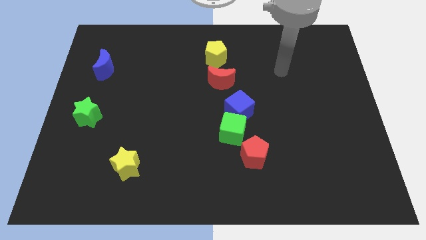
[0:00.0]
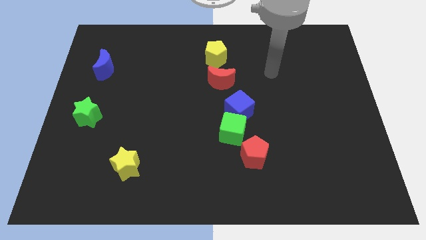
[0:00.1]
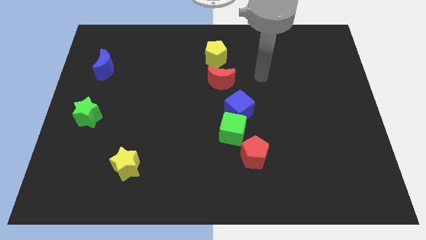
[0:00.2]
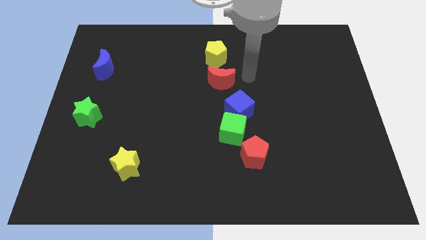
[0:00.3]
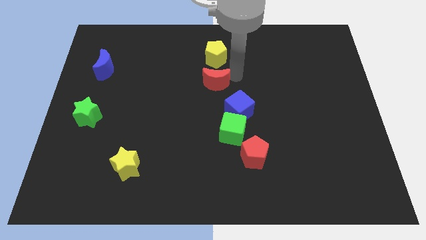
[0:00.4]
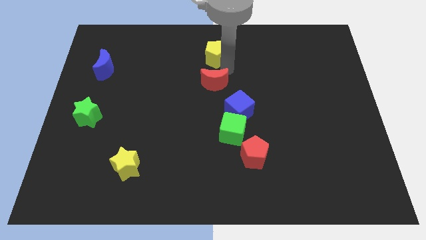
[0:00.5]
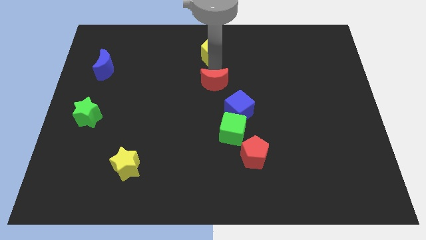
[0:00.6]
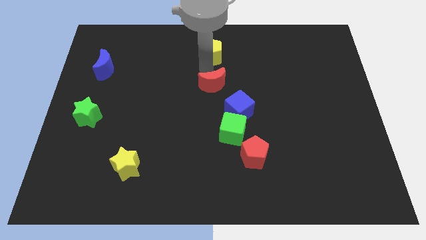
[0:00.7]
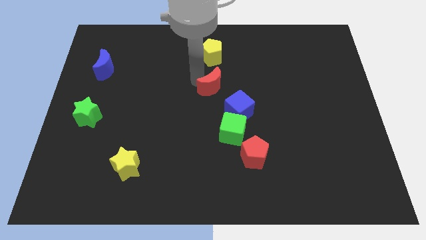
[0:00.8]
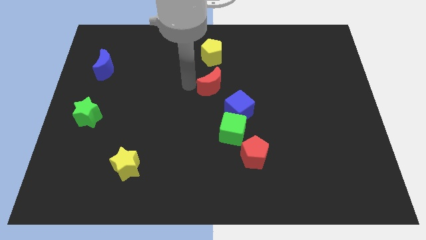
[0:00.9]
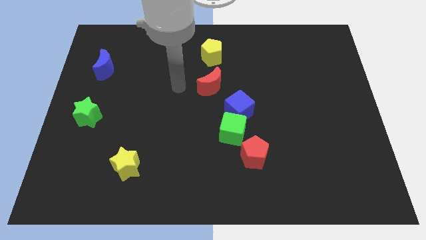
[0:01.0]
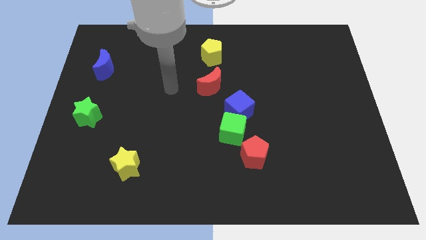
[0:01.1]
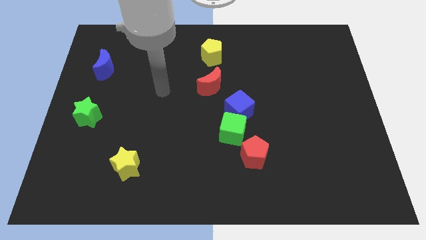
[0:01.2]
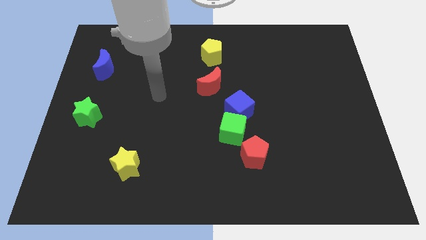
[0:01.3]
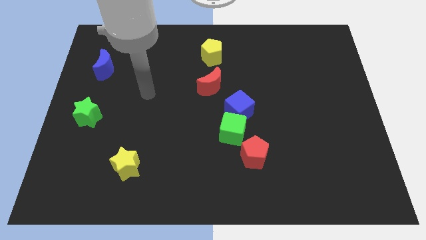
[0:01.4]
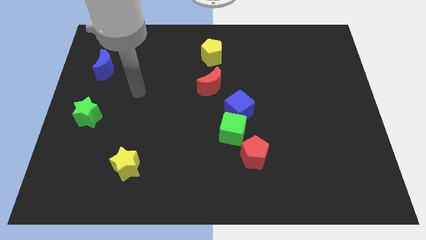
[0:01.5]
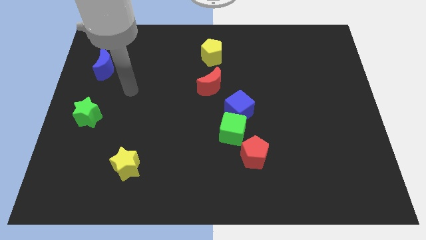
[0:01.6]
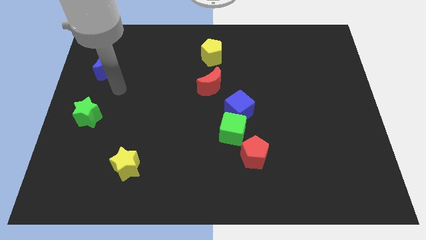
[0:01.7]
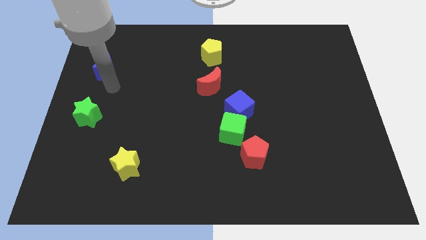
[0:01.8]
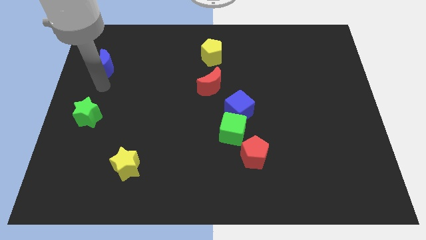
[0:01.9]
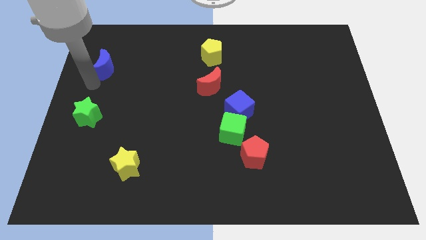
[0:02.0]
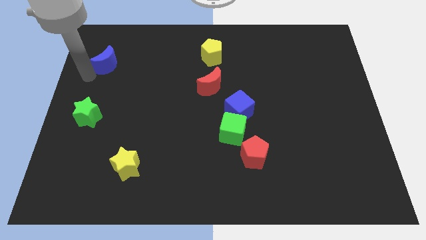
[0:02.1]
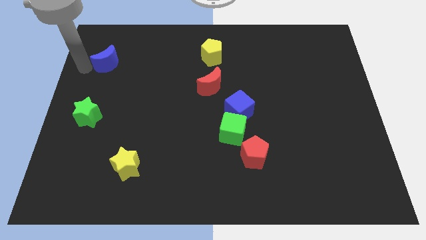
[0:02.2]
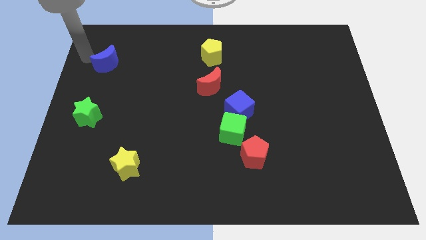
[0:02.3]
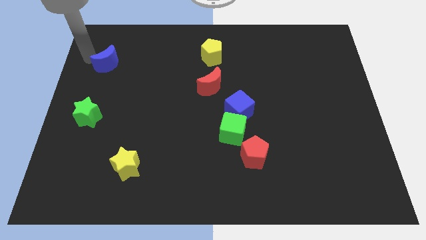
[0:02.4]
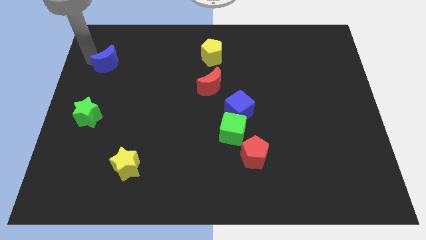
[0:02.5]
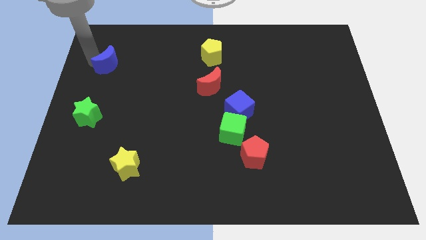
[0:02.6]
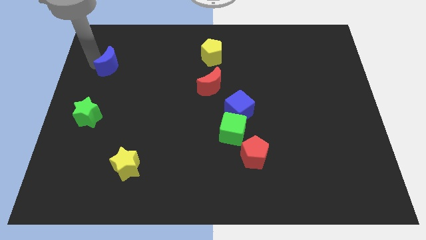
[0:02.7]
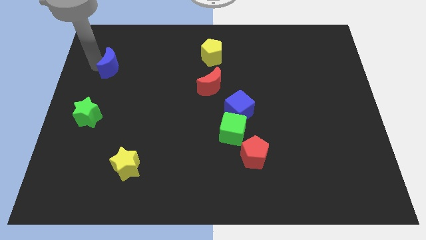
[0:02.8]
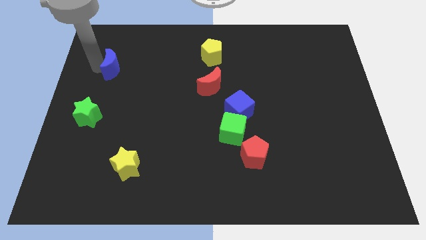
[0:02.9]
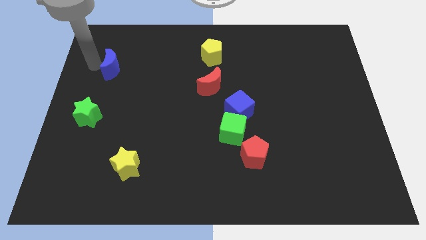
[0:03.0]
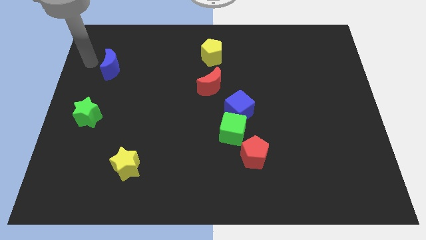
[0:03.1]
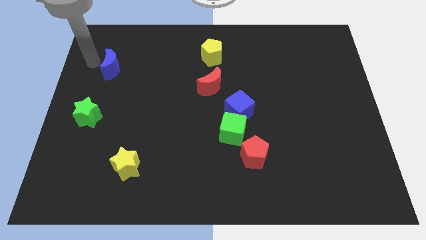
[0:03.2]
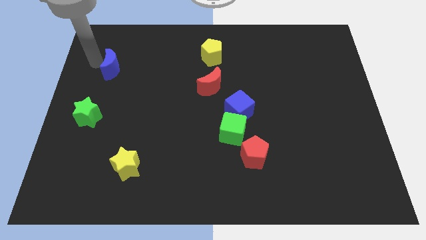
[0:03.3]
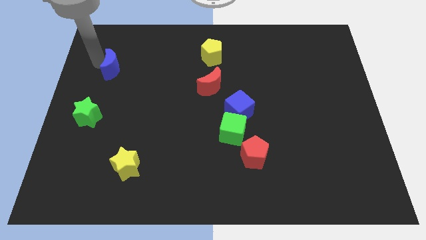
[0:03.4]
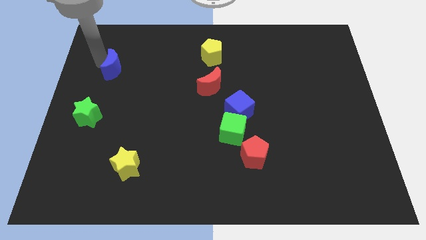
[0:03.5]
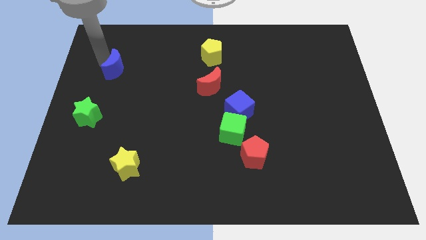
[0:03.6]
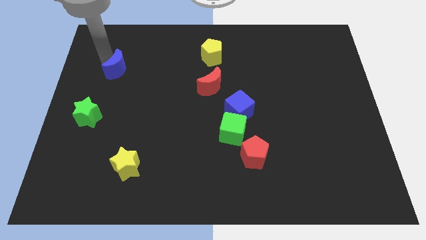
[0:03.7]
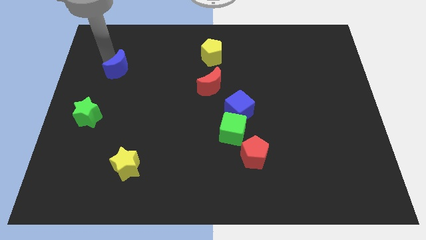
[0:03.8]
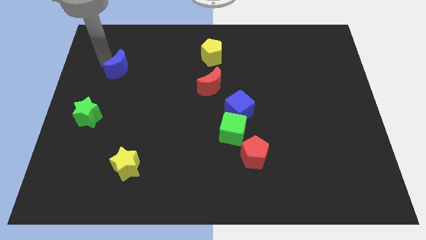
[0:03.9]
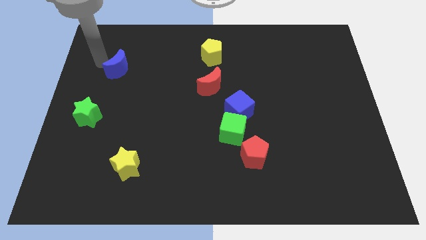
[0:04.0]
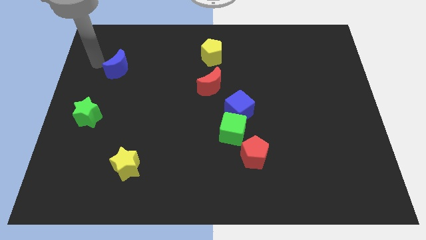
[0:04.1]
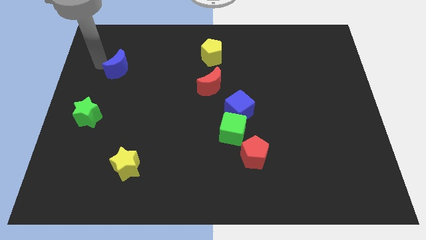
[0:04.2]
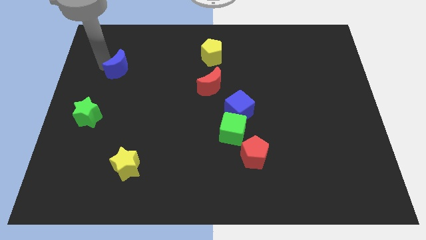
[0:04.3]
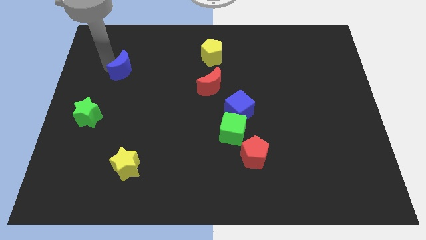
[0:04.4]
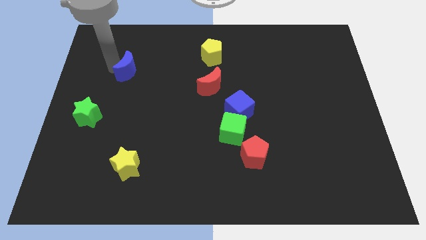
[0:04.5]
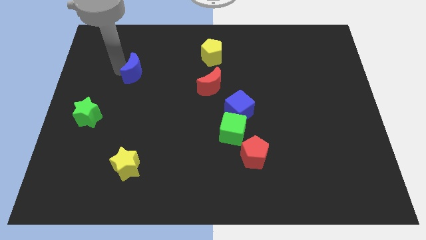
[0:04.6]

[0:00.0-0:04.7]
move the blue moon to the right a little

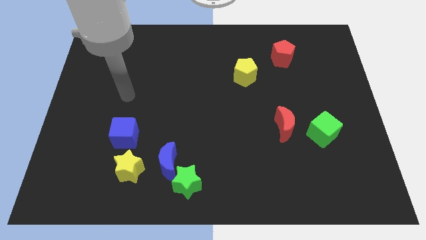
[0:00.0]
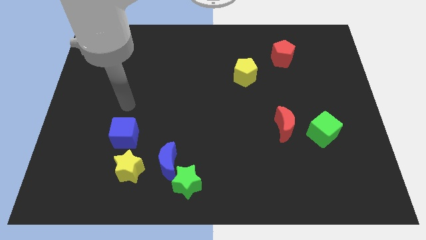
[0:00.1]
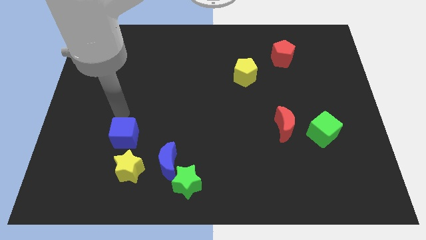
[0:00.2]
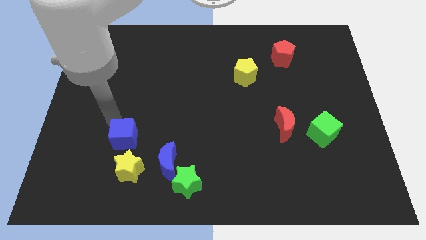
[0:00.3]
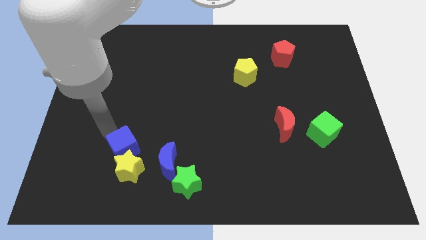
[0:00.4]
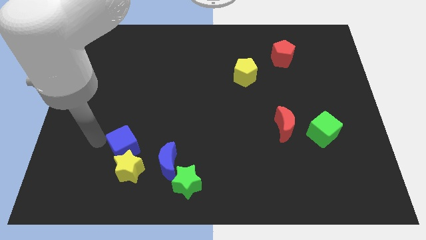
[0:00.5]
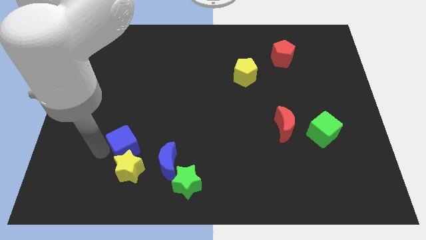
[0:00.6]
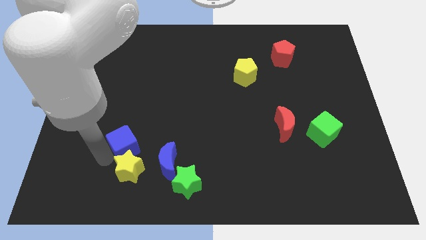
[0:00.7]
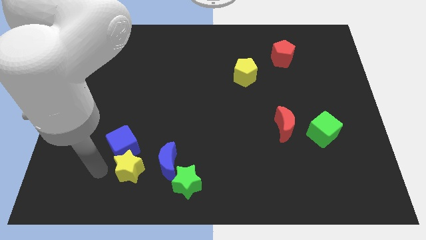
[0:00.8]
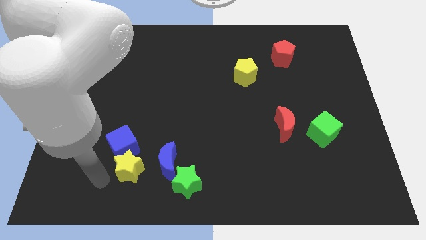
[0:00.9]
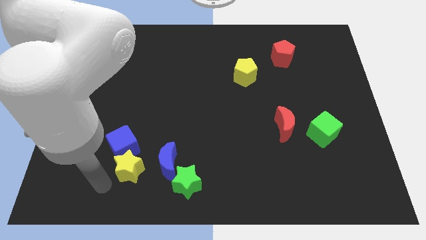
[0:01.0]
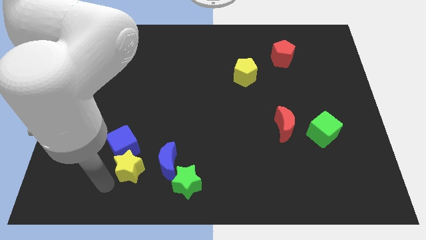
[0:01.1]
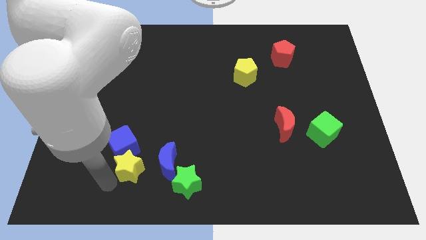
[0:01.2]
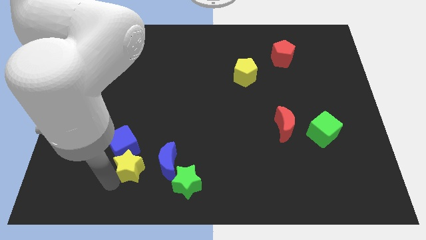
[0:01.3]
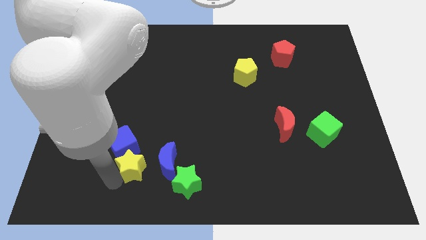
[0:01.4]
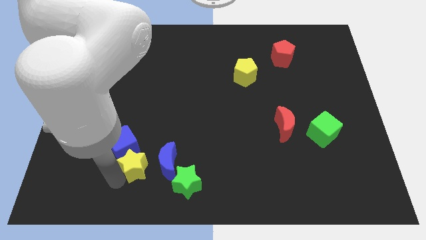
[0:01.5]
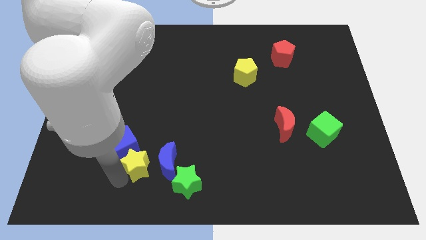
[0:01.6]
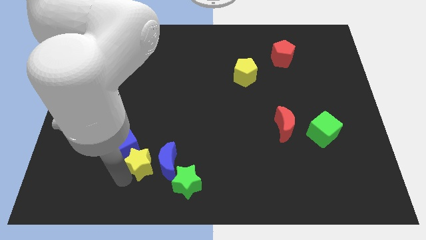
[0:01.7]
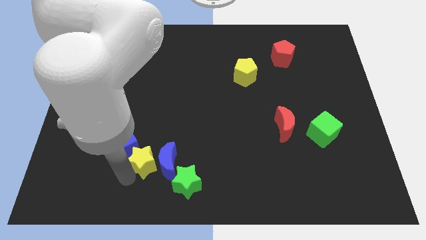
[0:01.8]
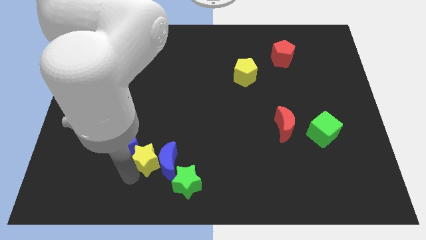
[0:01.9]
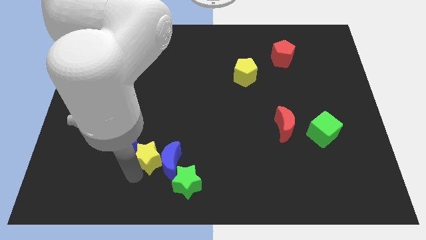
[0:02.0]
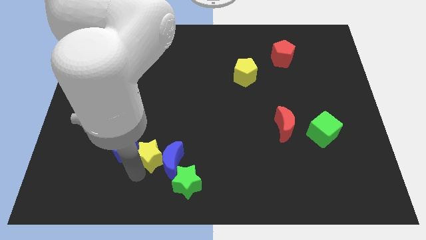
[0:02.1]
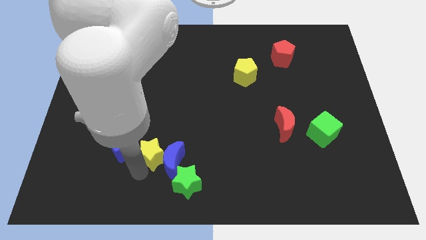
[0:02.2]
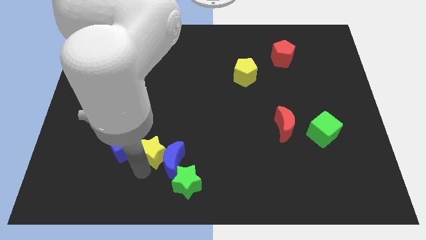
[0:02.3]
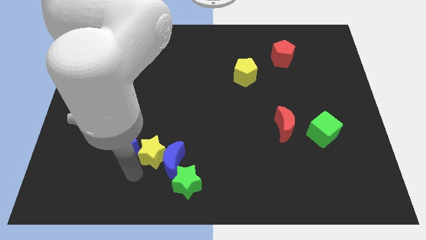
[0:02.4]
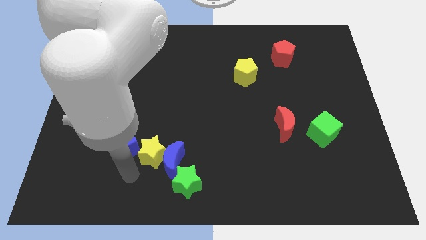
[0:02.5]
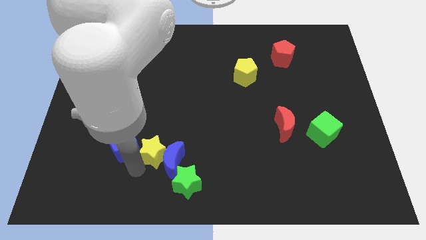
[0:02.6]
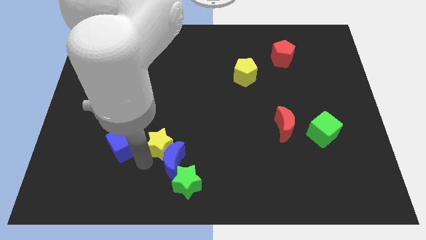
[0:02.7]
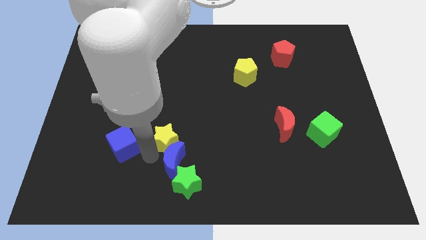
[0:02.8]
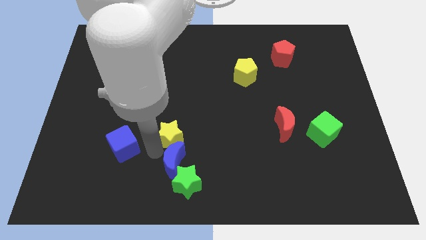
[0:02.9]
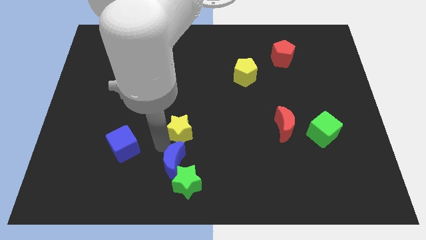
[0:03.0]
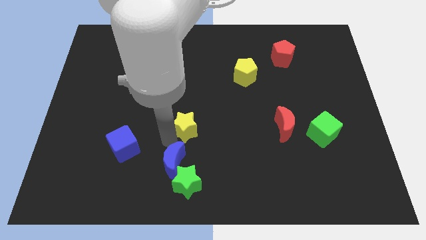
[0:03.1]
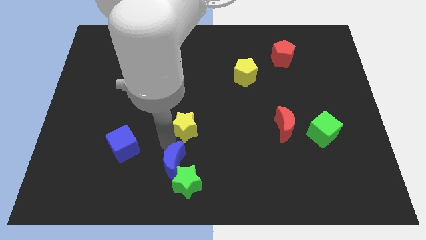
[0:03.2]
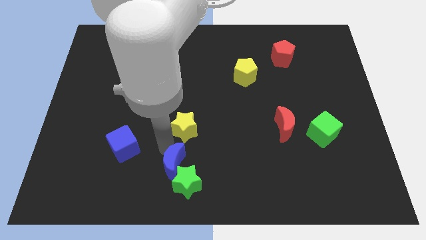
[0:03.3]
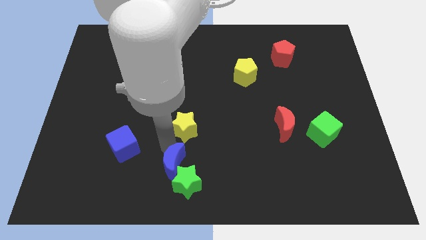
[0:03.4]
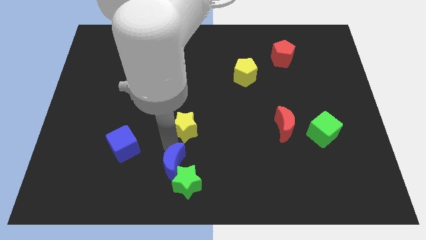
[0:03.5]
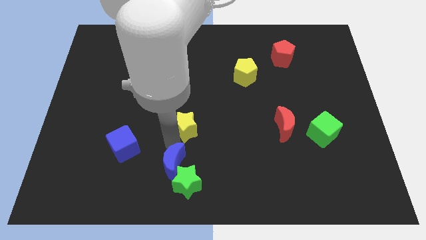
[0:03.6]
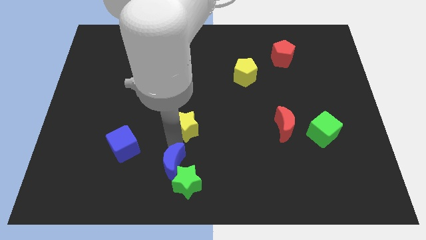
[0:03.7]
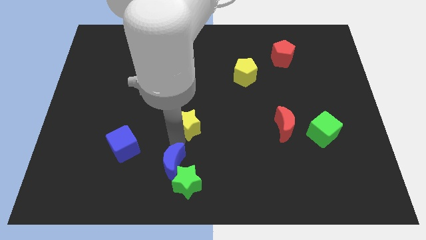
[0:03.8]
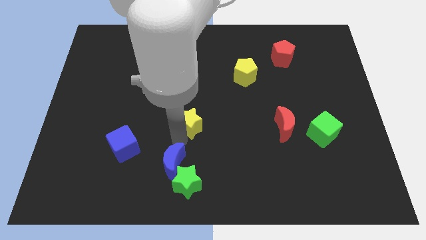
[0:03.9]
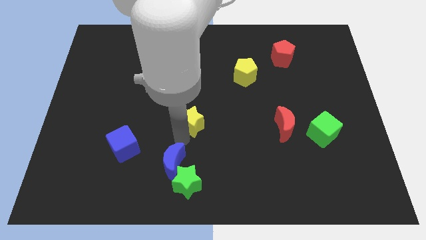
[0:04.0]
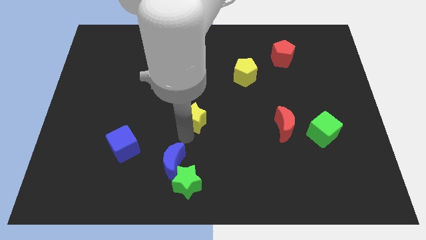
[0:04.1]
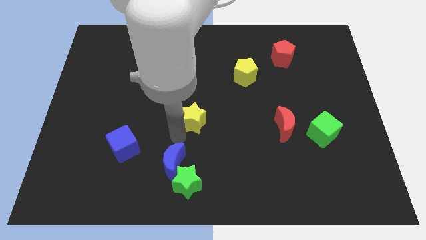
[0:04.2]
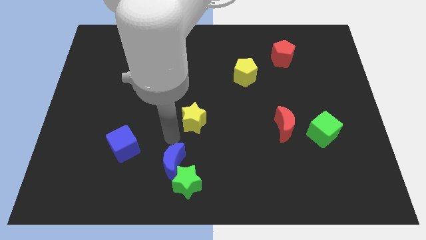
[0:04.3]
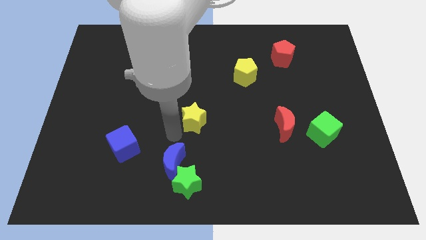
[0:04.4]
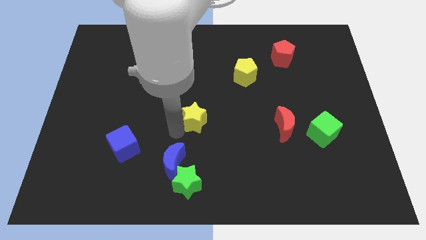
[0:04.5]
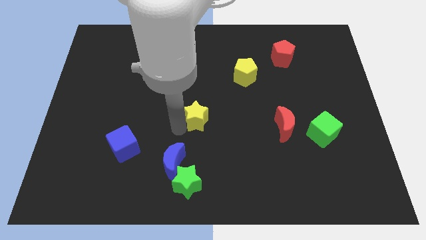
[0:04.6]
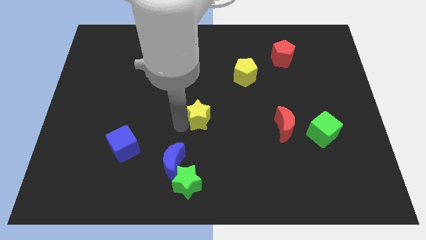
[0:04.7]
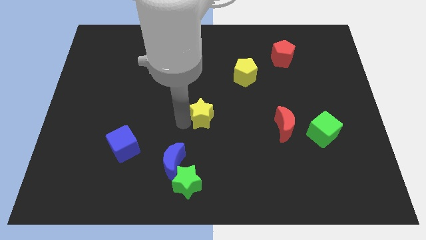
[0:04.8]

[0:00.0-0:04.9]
push the yellow star diagonally up and right
